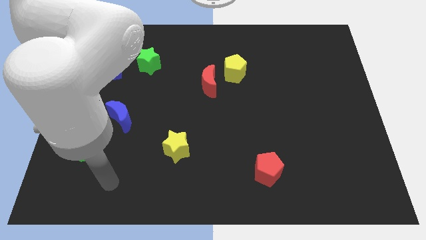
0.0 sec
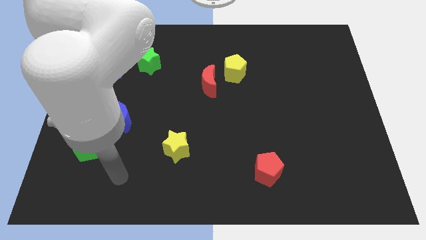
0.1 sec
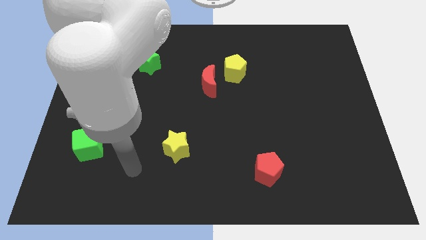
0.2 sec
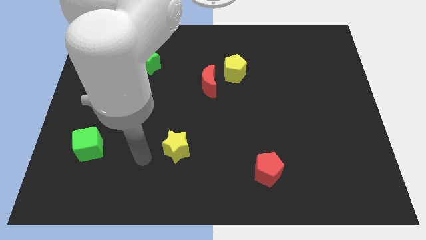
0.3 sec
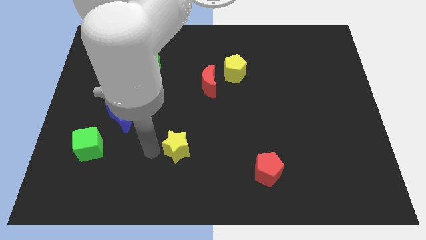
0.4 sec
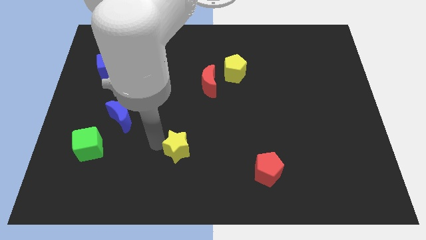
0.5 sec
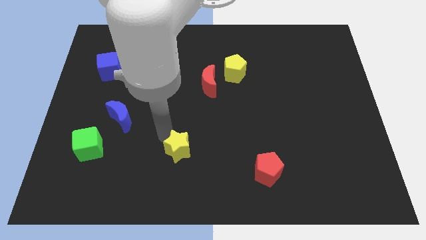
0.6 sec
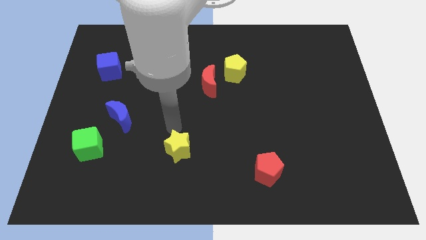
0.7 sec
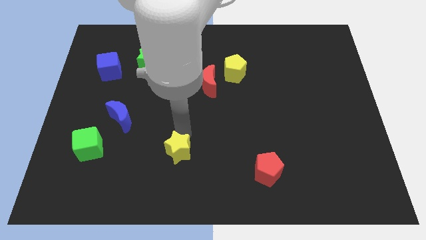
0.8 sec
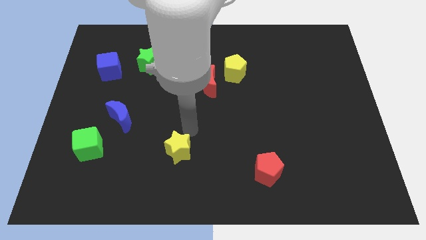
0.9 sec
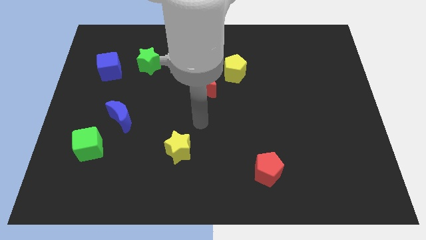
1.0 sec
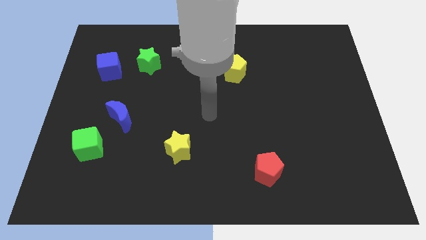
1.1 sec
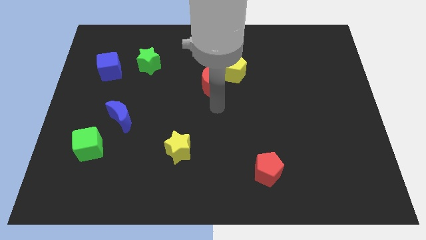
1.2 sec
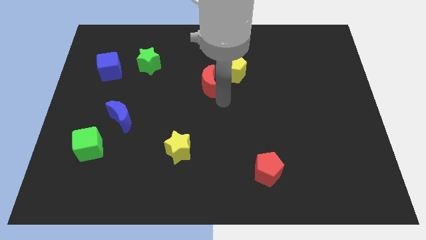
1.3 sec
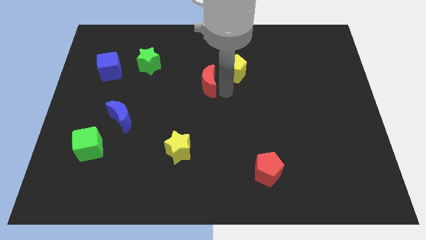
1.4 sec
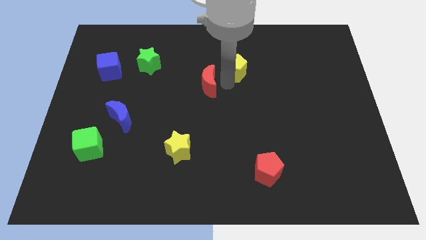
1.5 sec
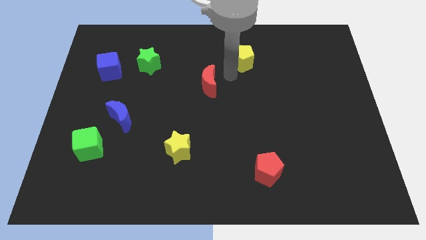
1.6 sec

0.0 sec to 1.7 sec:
move the red moon away from the yellow pentagon

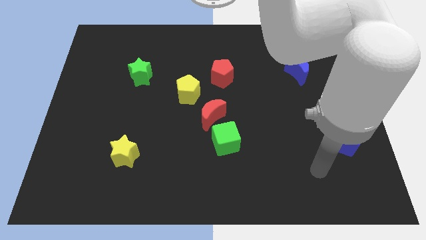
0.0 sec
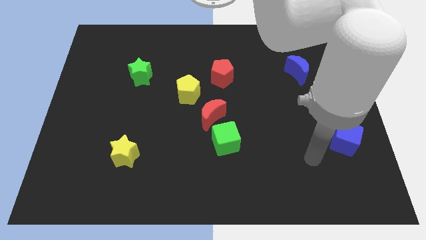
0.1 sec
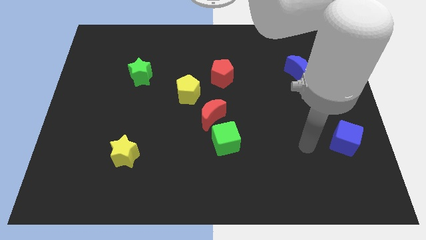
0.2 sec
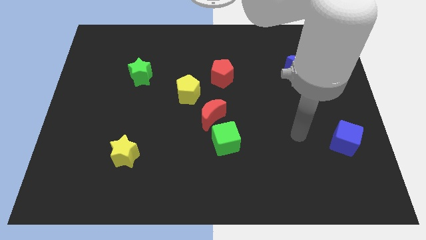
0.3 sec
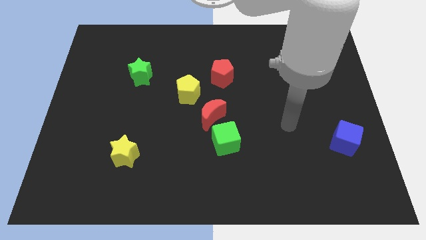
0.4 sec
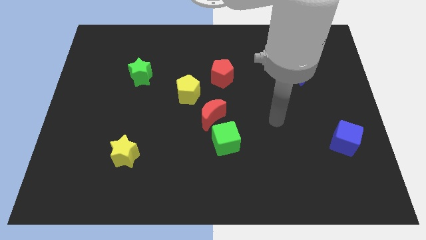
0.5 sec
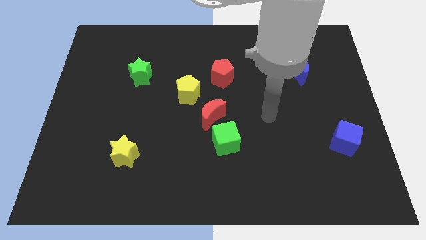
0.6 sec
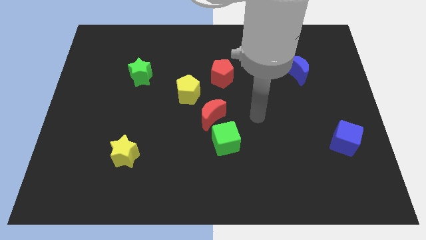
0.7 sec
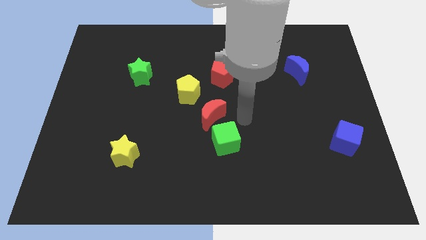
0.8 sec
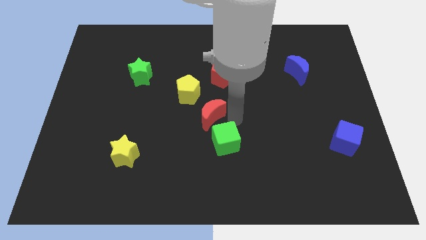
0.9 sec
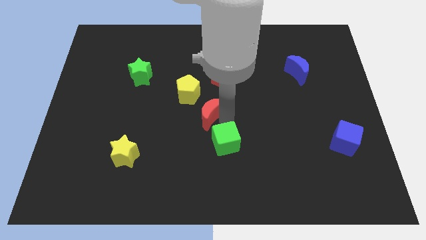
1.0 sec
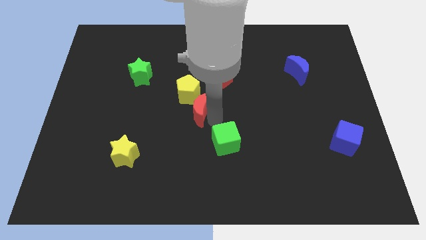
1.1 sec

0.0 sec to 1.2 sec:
move the green cube away from the red moon

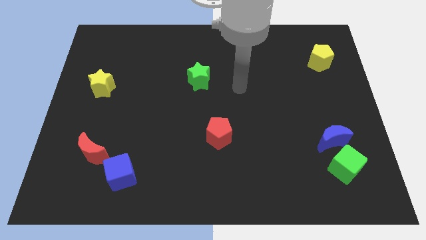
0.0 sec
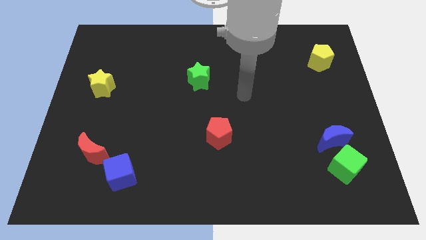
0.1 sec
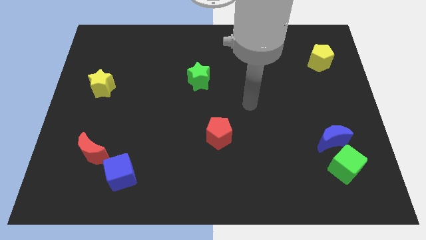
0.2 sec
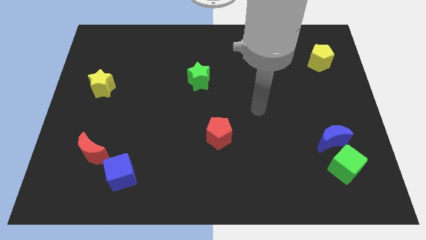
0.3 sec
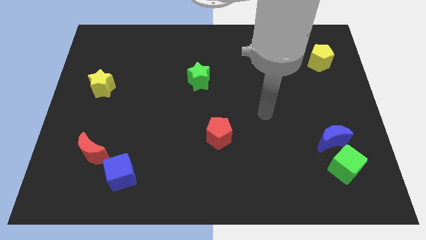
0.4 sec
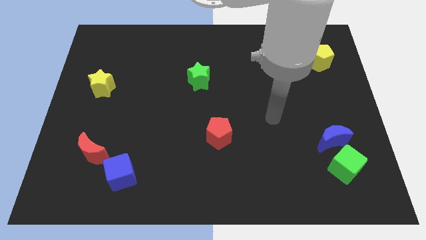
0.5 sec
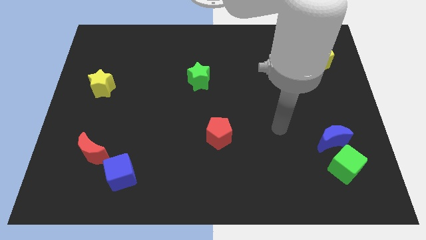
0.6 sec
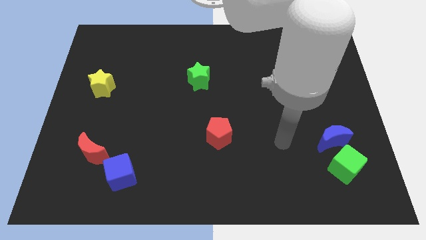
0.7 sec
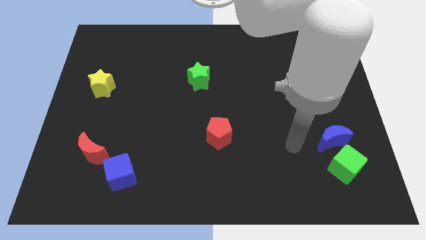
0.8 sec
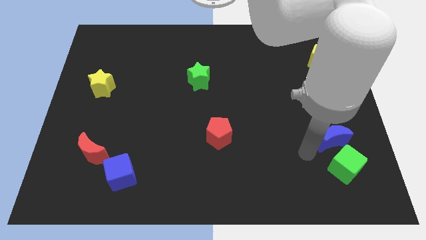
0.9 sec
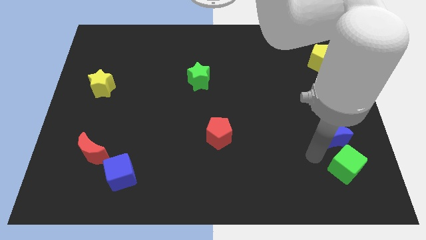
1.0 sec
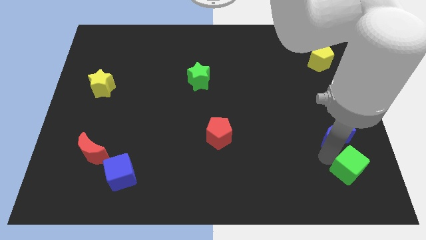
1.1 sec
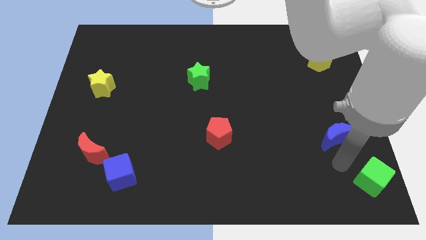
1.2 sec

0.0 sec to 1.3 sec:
move the blue moon away from the green cube

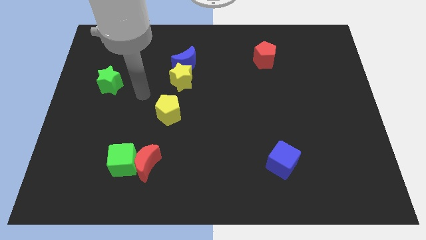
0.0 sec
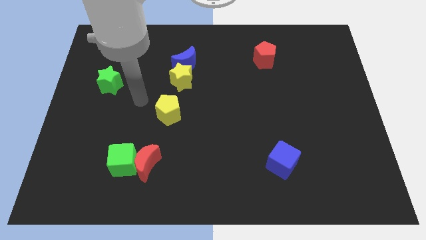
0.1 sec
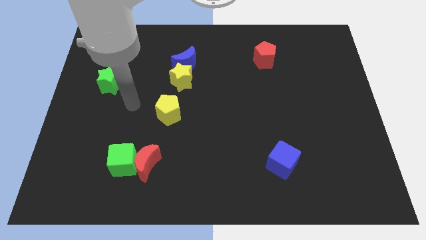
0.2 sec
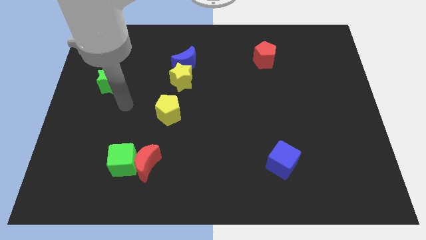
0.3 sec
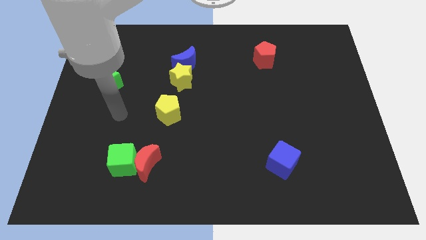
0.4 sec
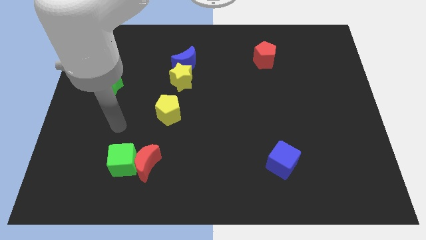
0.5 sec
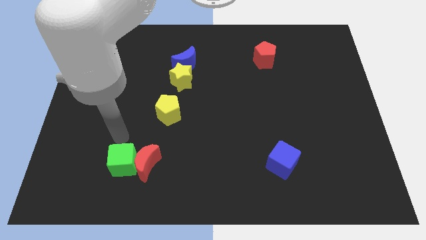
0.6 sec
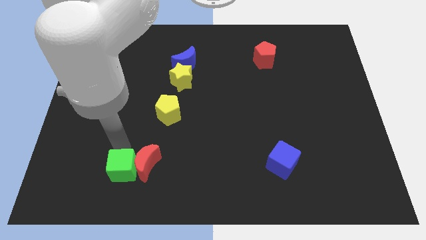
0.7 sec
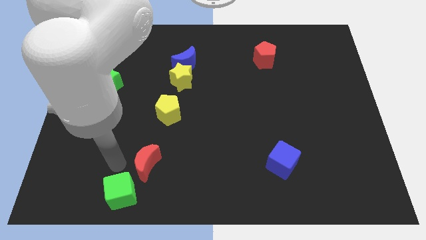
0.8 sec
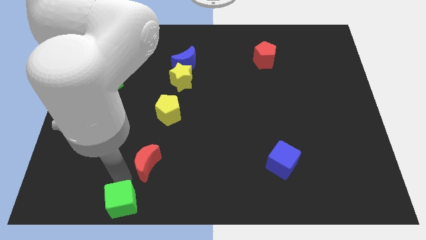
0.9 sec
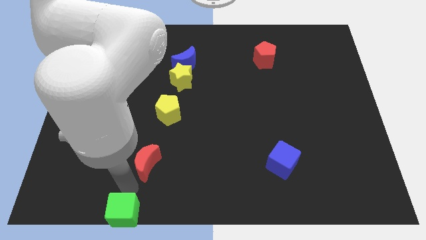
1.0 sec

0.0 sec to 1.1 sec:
move the red moon away from the green cube

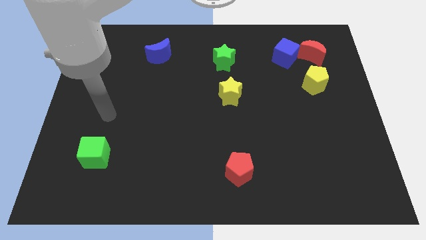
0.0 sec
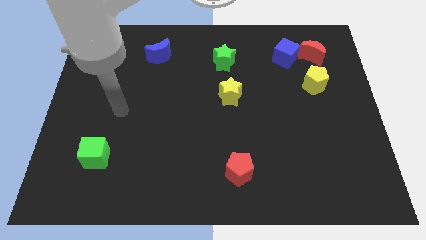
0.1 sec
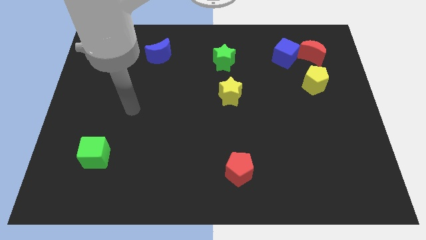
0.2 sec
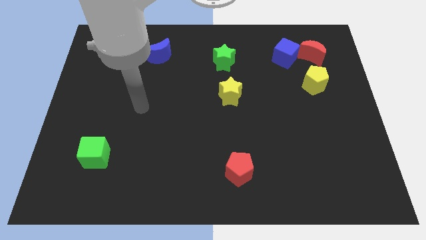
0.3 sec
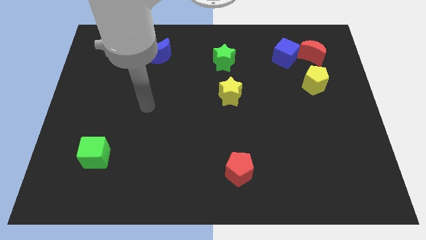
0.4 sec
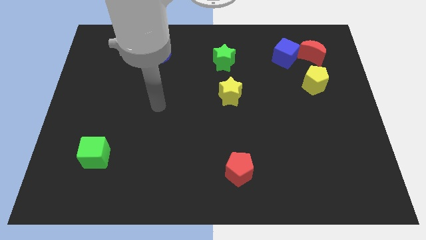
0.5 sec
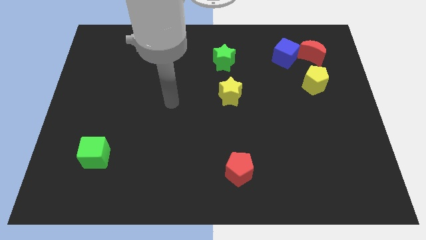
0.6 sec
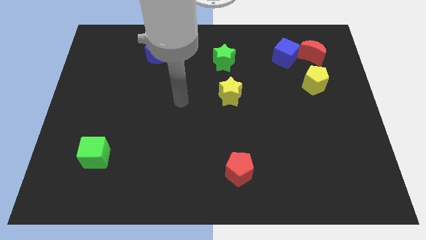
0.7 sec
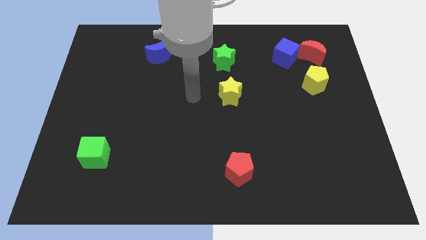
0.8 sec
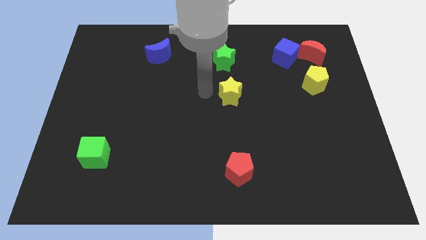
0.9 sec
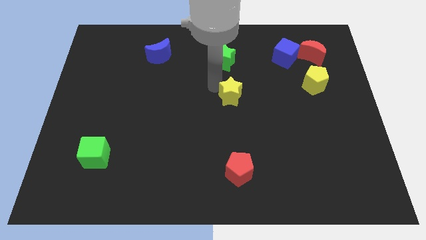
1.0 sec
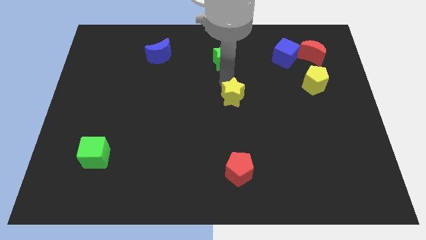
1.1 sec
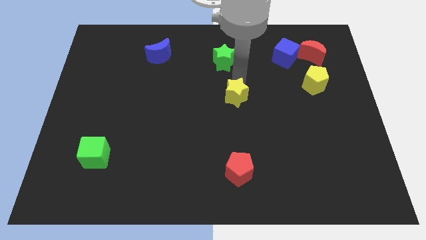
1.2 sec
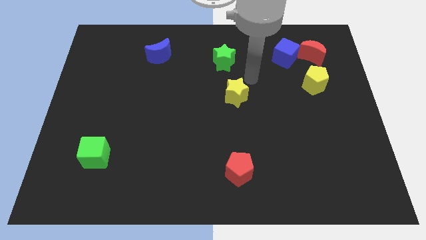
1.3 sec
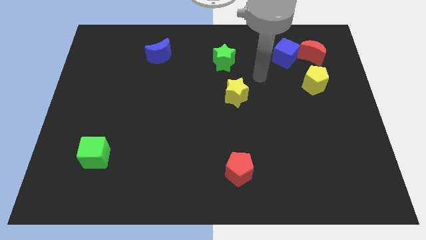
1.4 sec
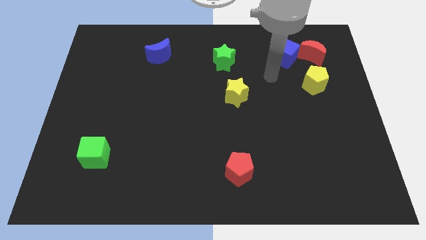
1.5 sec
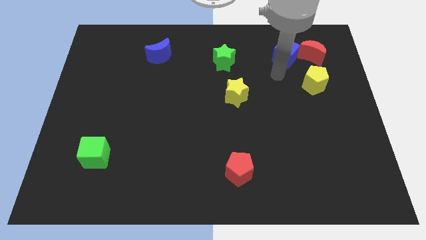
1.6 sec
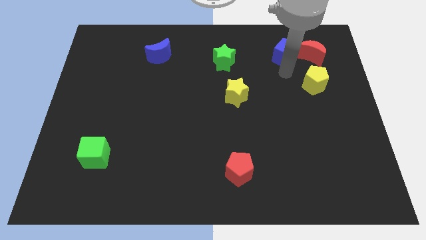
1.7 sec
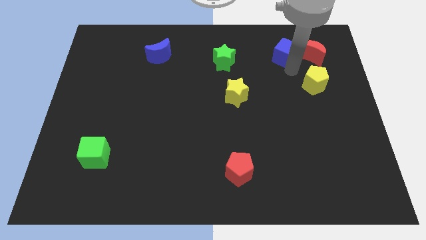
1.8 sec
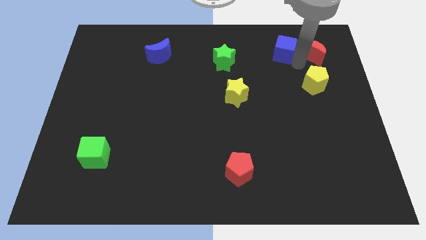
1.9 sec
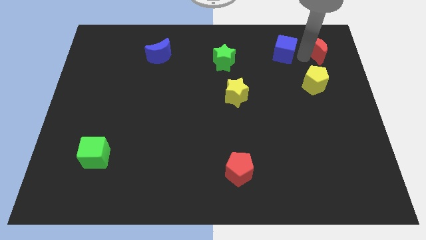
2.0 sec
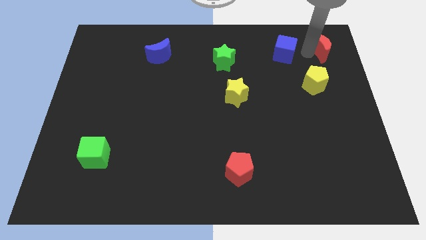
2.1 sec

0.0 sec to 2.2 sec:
separate the blue cube from the red moon

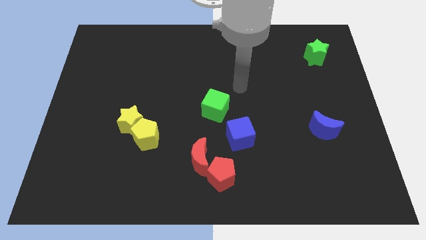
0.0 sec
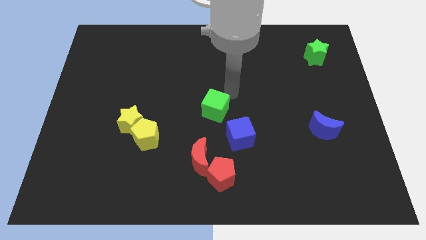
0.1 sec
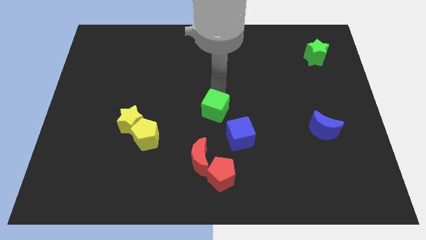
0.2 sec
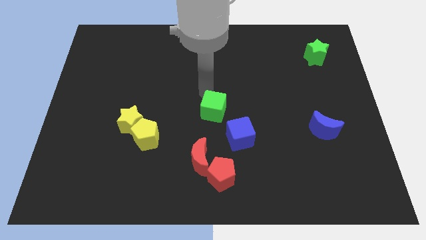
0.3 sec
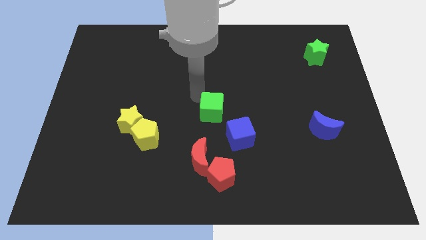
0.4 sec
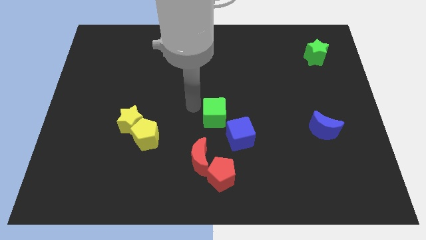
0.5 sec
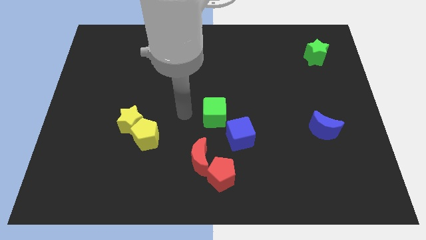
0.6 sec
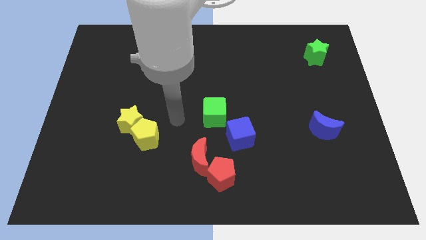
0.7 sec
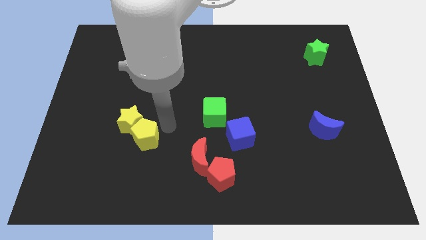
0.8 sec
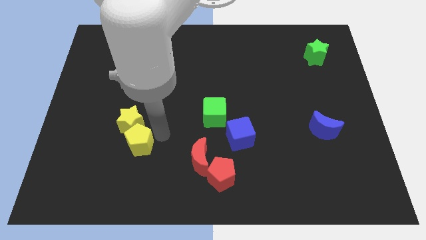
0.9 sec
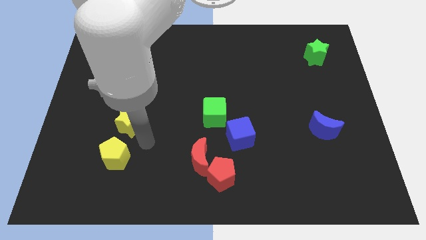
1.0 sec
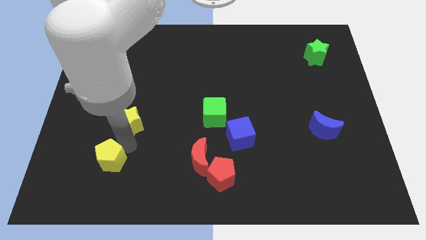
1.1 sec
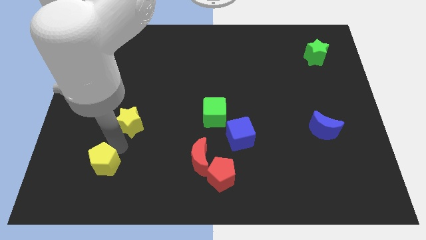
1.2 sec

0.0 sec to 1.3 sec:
move the yellow star away from the yellow pentagon

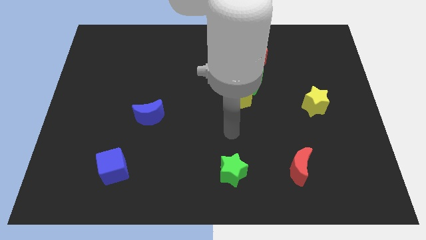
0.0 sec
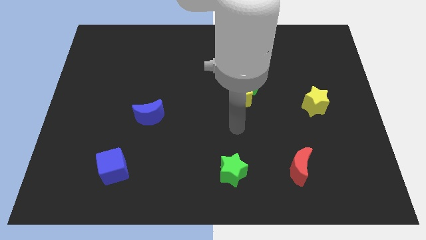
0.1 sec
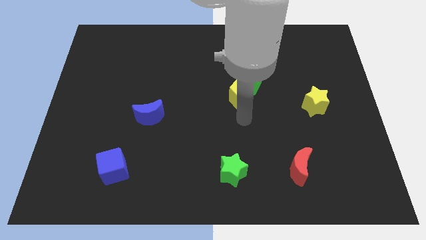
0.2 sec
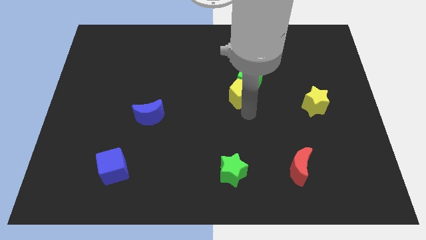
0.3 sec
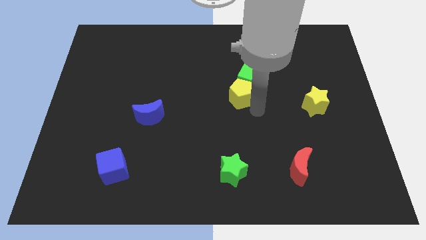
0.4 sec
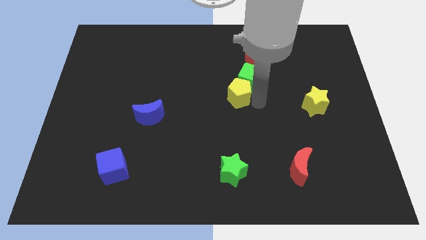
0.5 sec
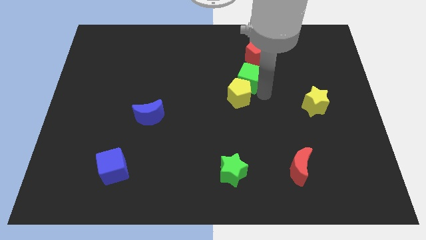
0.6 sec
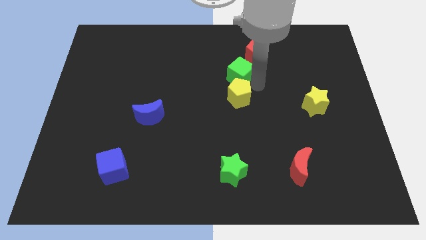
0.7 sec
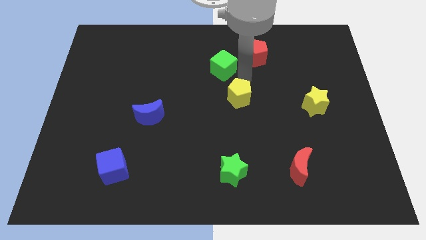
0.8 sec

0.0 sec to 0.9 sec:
pull the yellow pentagon apart from the green cube
